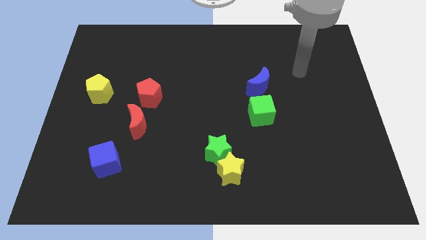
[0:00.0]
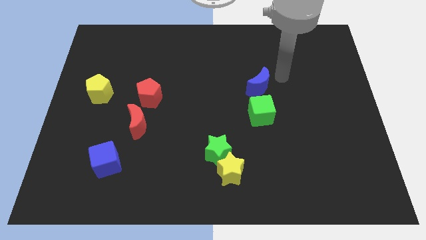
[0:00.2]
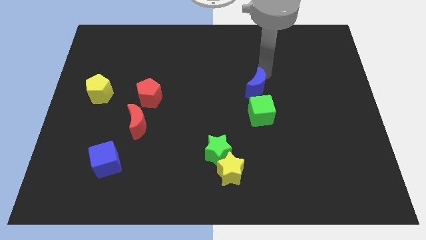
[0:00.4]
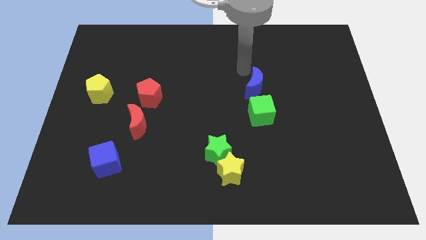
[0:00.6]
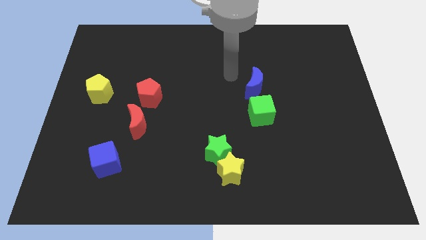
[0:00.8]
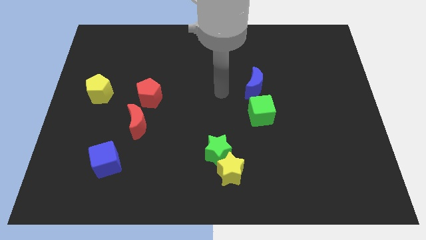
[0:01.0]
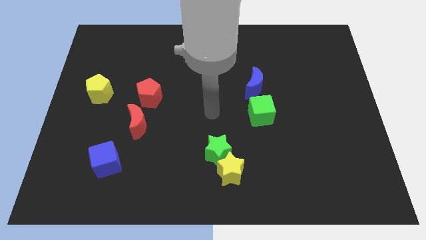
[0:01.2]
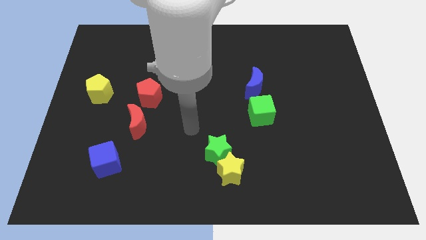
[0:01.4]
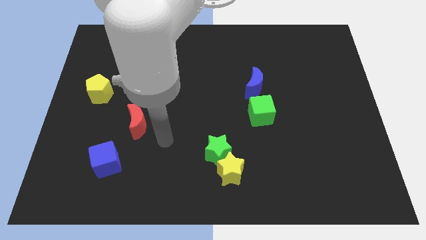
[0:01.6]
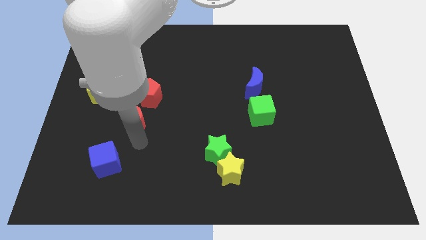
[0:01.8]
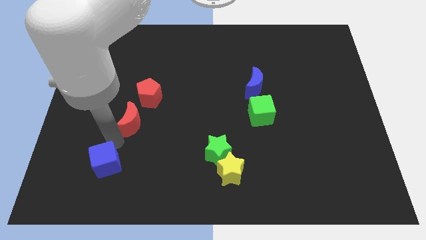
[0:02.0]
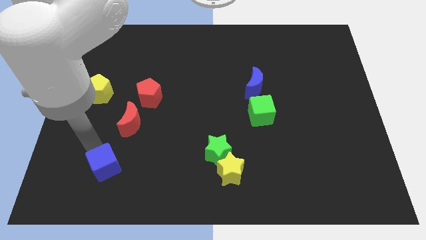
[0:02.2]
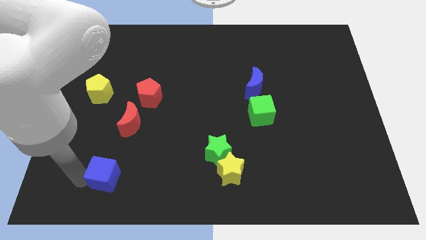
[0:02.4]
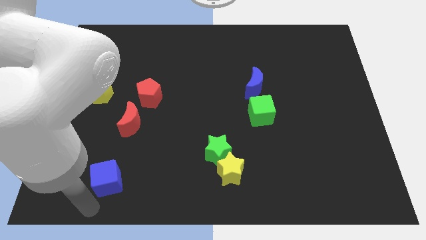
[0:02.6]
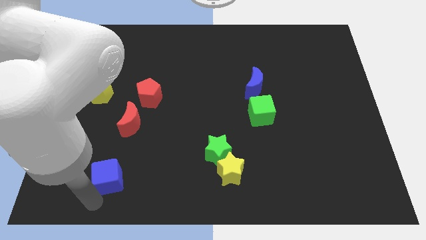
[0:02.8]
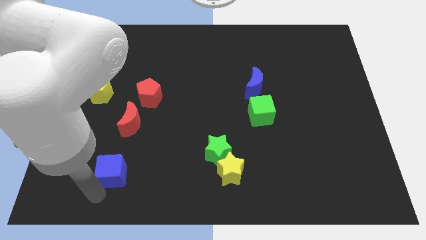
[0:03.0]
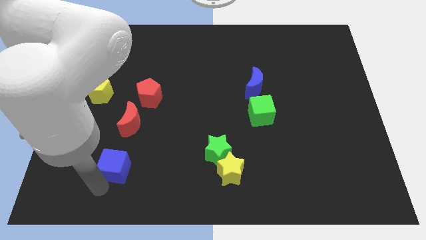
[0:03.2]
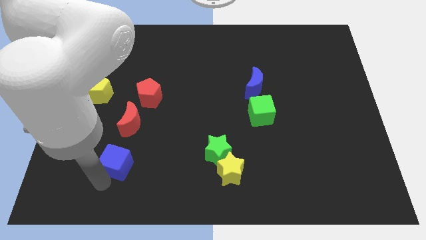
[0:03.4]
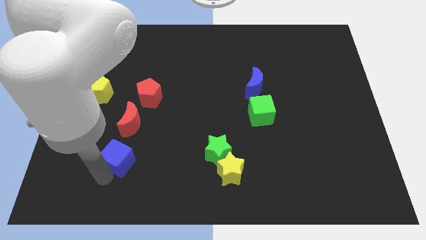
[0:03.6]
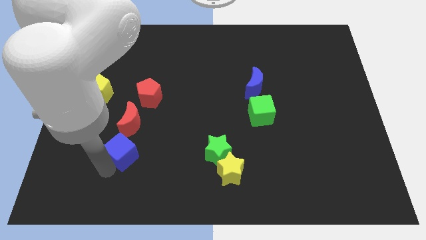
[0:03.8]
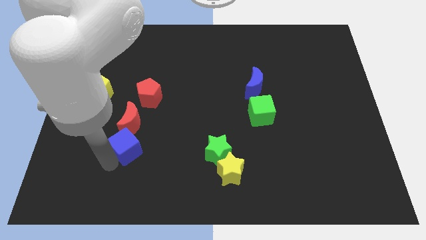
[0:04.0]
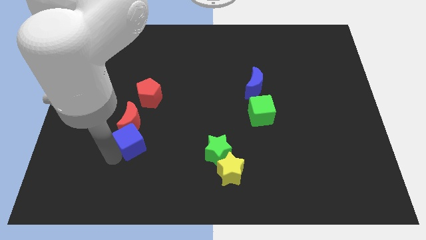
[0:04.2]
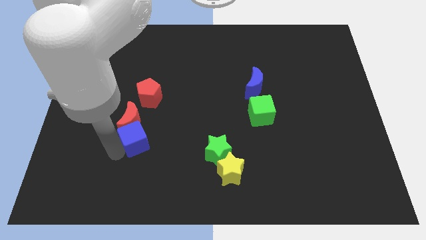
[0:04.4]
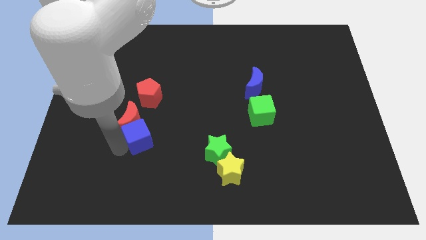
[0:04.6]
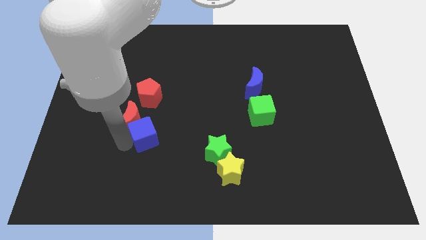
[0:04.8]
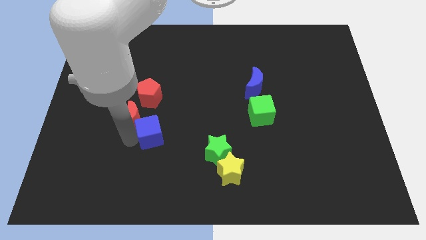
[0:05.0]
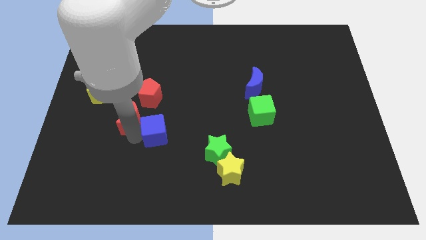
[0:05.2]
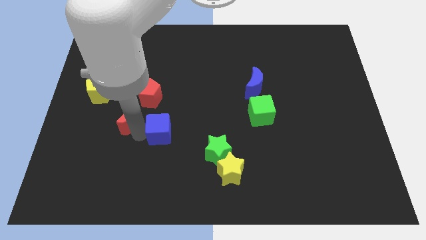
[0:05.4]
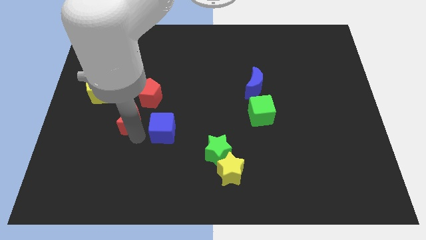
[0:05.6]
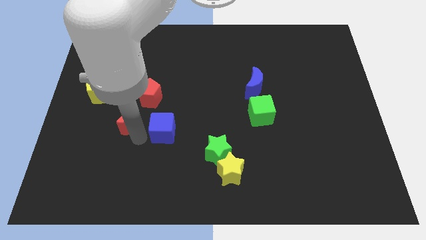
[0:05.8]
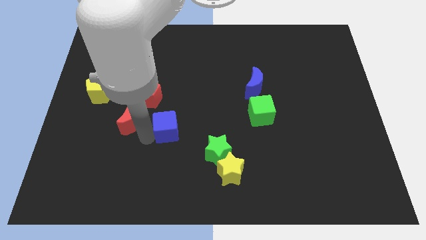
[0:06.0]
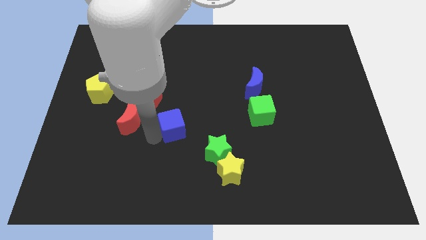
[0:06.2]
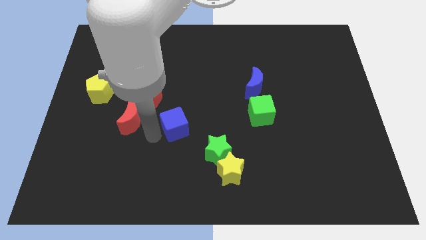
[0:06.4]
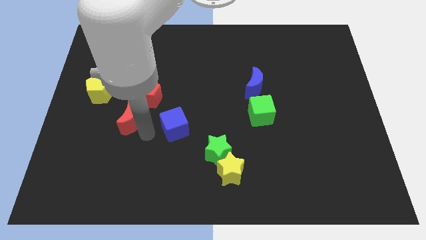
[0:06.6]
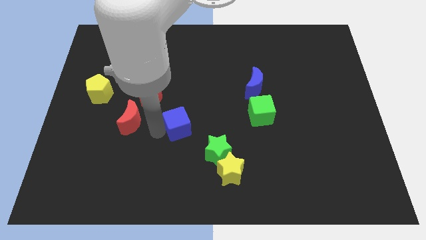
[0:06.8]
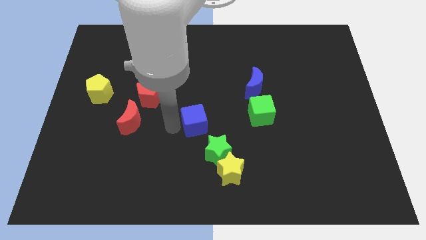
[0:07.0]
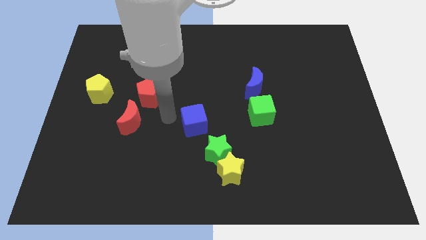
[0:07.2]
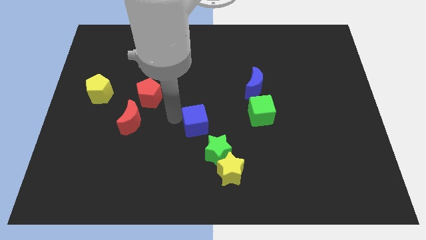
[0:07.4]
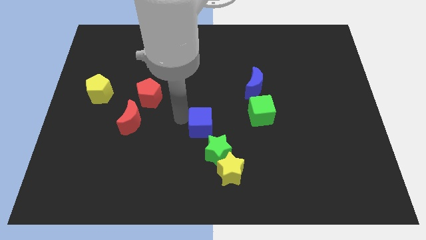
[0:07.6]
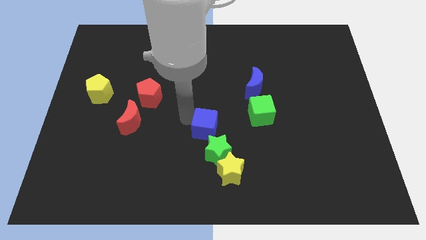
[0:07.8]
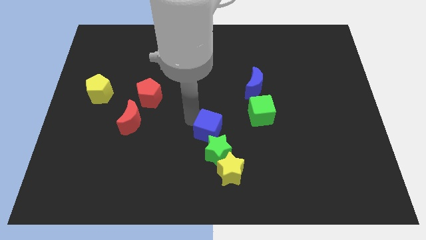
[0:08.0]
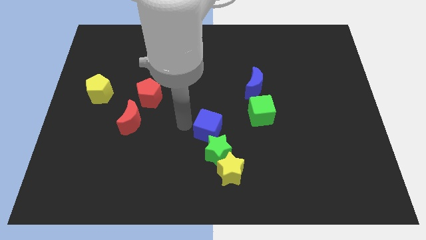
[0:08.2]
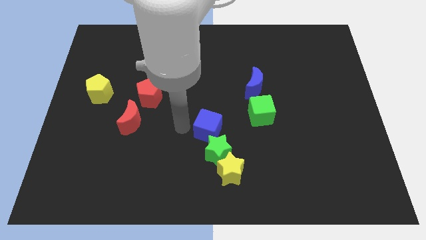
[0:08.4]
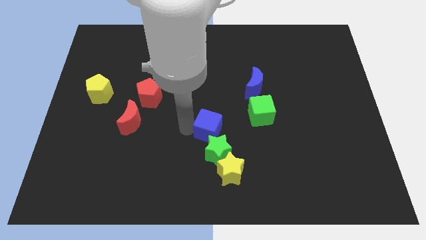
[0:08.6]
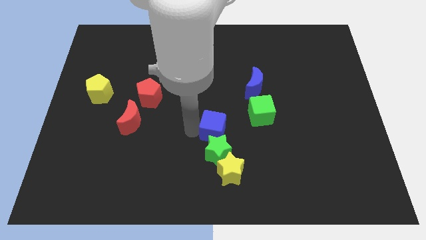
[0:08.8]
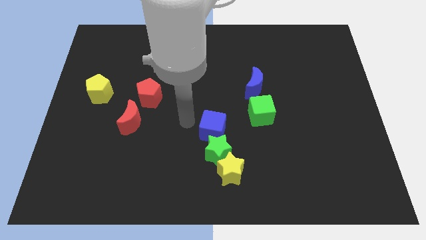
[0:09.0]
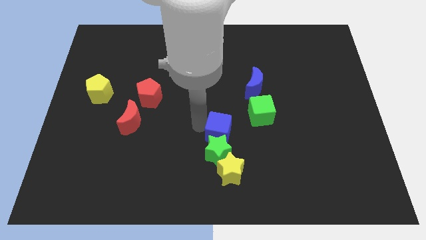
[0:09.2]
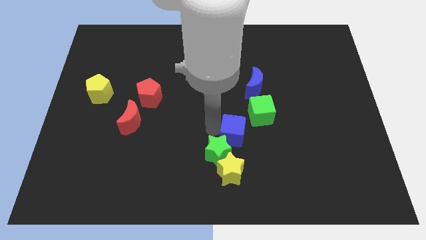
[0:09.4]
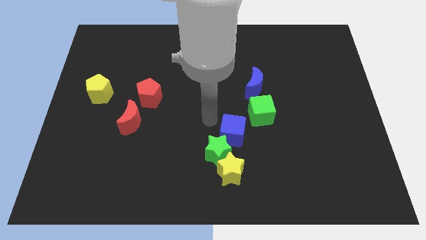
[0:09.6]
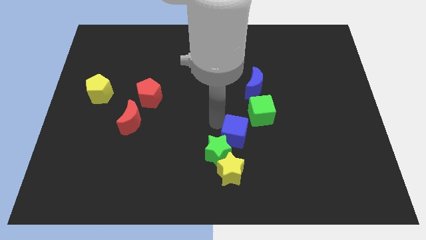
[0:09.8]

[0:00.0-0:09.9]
push the blue cube to the right of the green star
